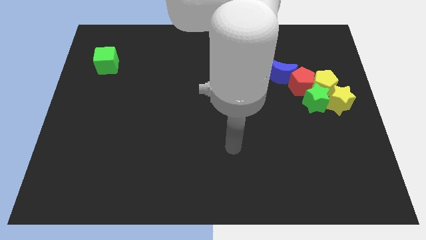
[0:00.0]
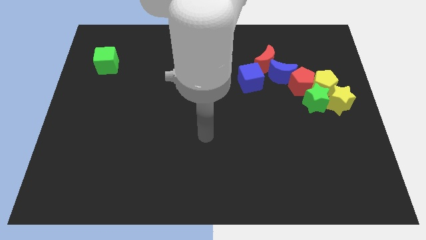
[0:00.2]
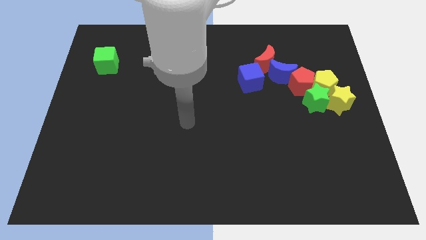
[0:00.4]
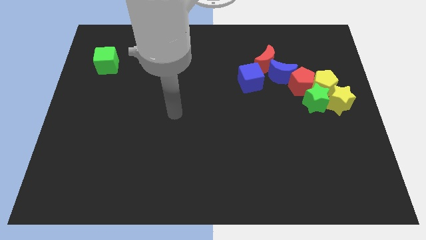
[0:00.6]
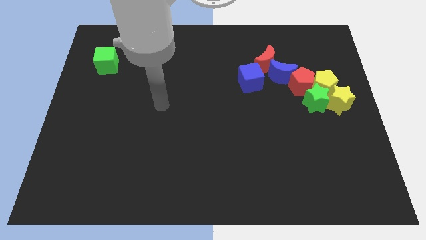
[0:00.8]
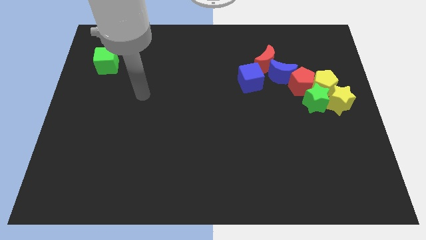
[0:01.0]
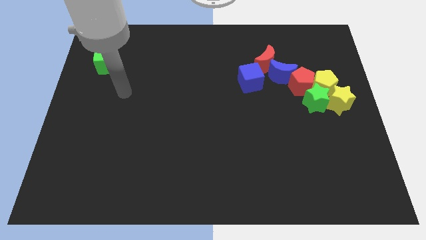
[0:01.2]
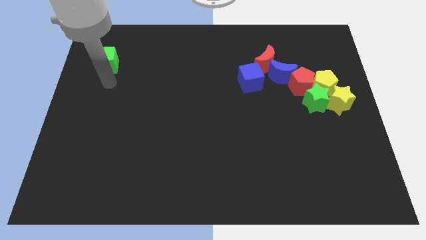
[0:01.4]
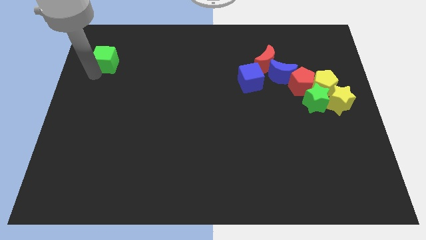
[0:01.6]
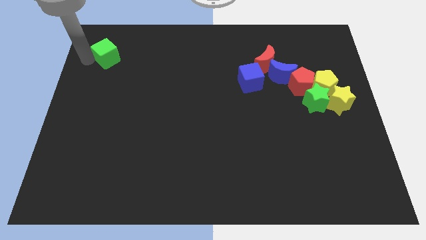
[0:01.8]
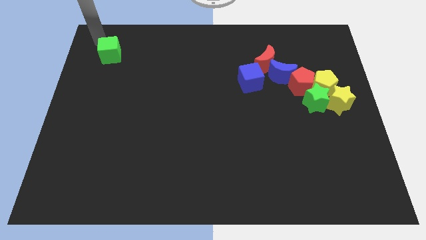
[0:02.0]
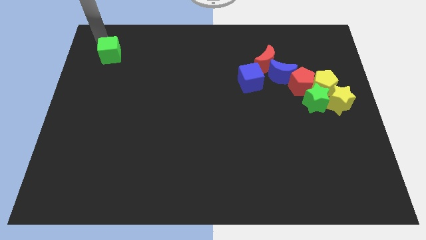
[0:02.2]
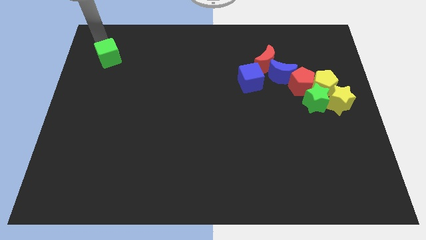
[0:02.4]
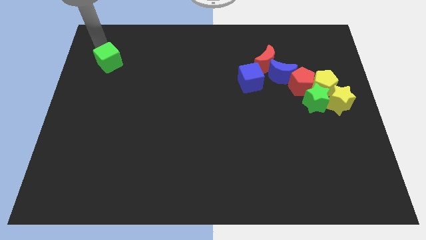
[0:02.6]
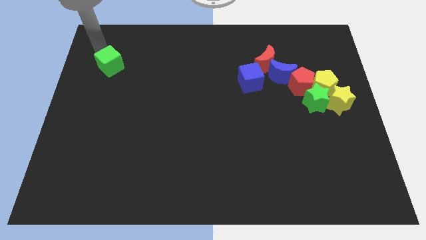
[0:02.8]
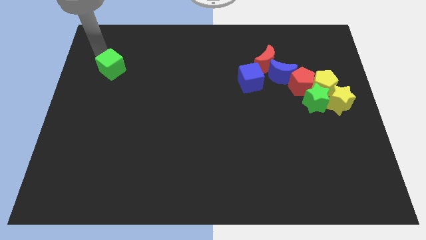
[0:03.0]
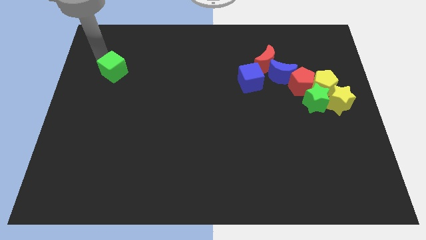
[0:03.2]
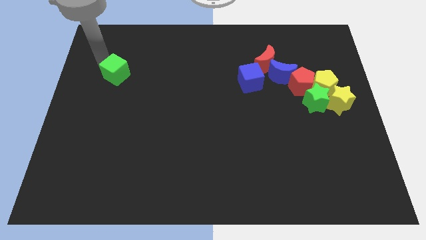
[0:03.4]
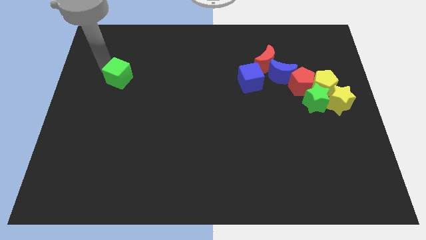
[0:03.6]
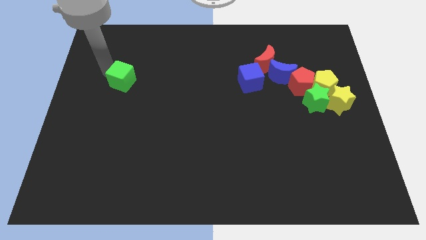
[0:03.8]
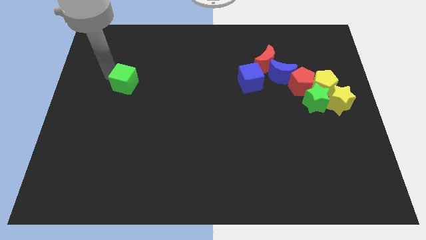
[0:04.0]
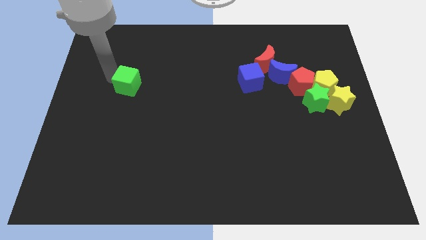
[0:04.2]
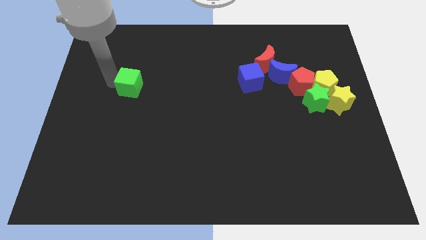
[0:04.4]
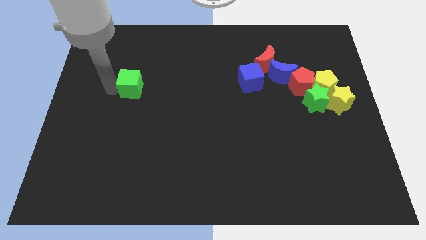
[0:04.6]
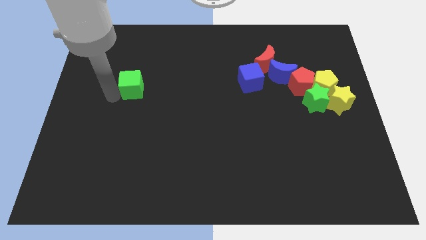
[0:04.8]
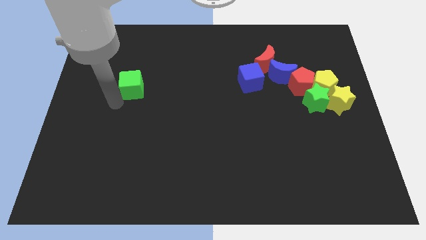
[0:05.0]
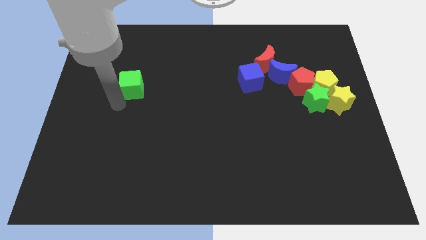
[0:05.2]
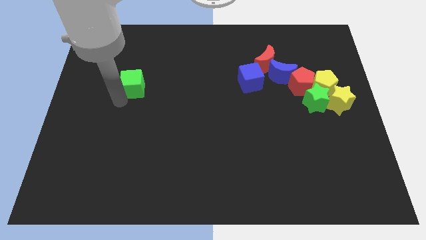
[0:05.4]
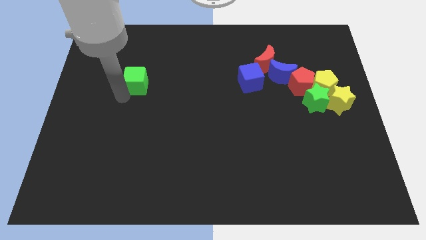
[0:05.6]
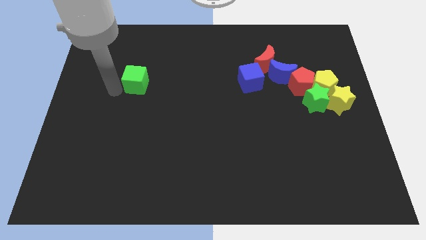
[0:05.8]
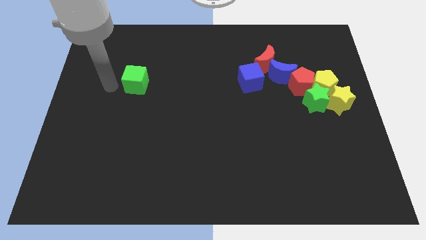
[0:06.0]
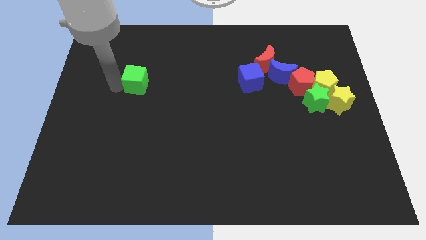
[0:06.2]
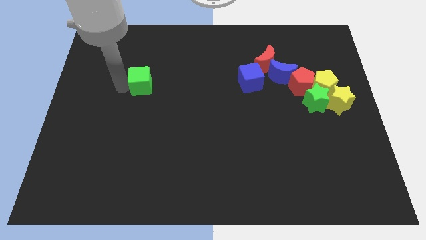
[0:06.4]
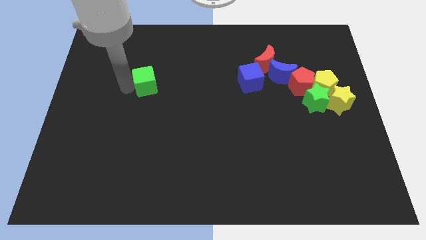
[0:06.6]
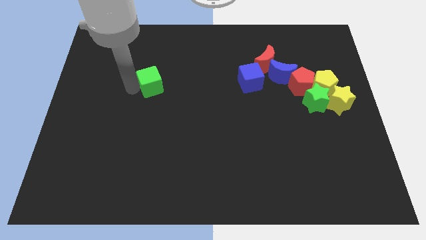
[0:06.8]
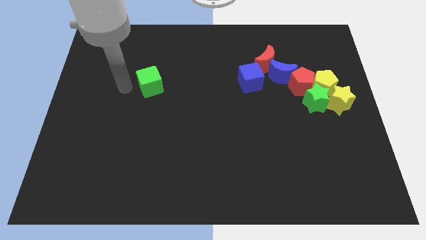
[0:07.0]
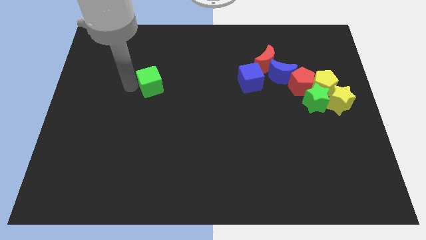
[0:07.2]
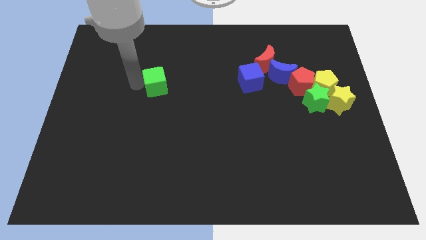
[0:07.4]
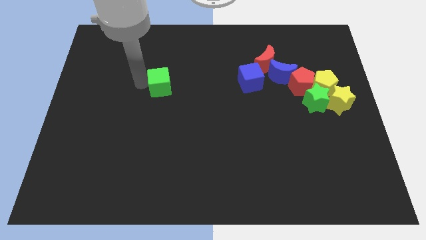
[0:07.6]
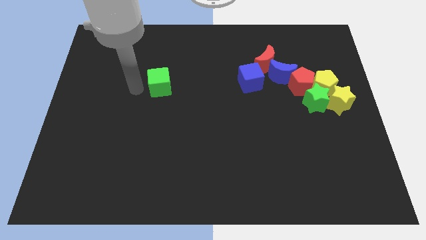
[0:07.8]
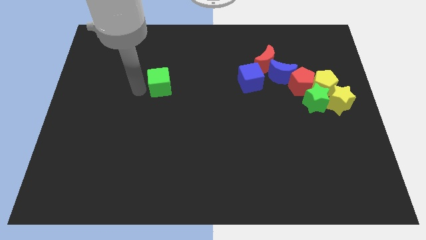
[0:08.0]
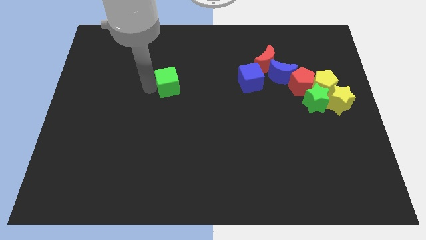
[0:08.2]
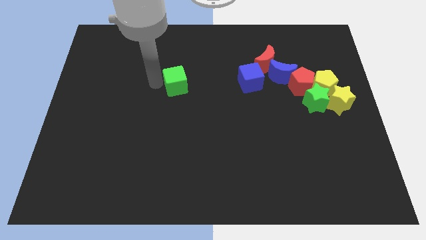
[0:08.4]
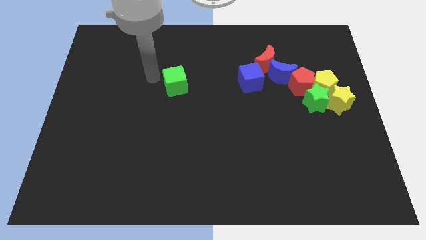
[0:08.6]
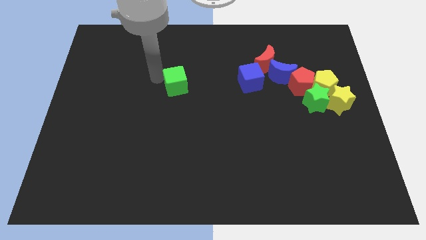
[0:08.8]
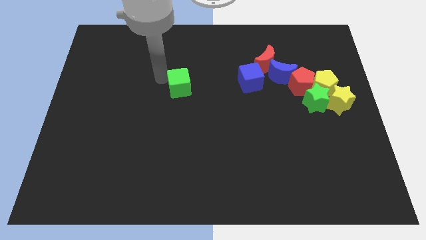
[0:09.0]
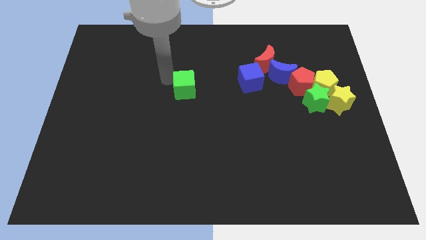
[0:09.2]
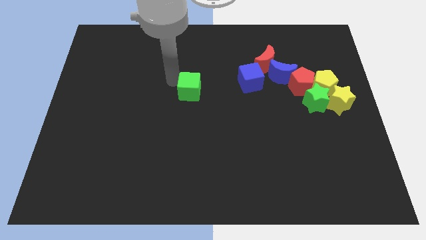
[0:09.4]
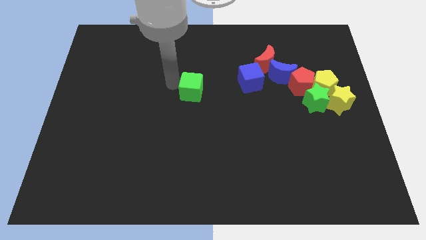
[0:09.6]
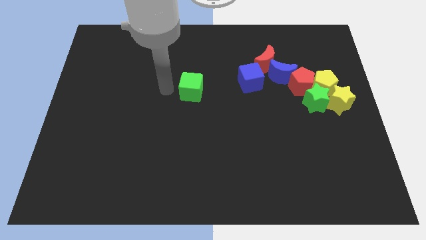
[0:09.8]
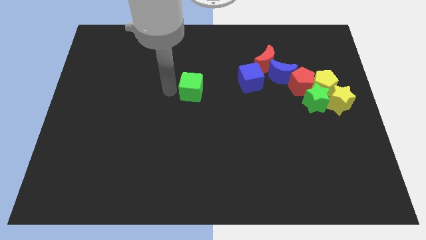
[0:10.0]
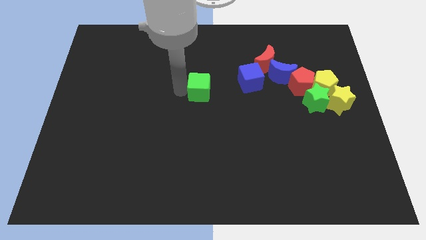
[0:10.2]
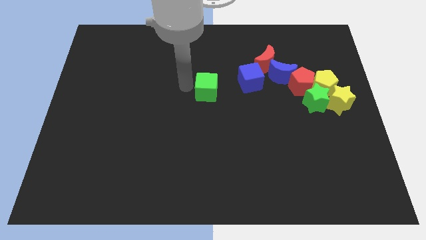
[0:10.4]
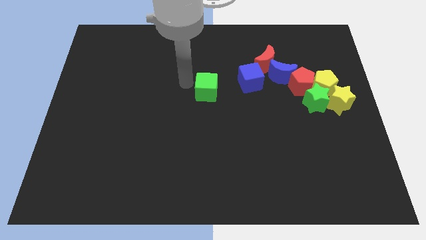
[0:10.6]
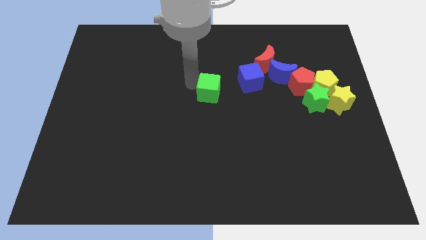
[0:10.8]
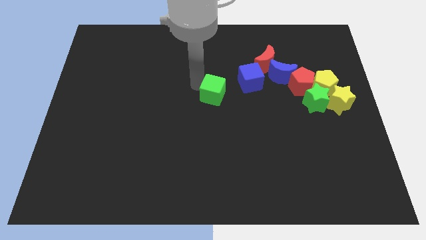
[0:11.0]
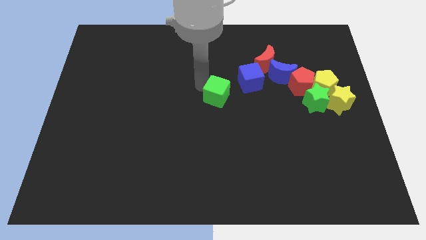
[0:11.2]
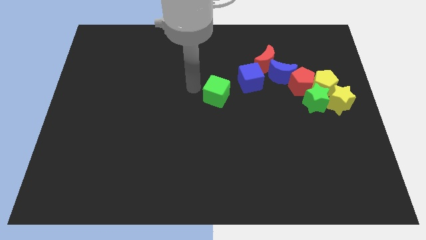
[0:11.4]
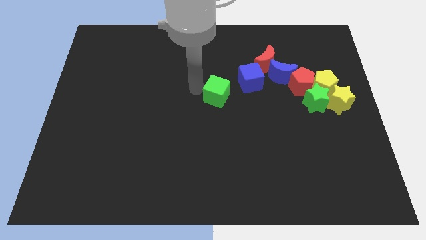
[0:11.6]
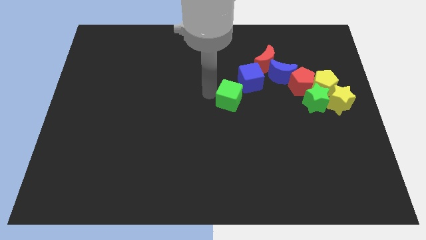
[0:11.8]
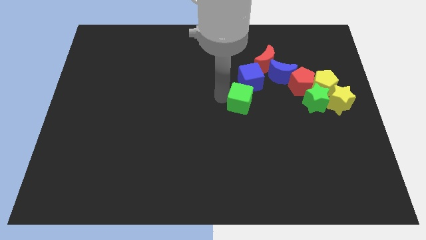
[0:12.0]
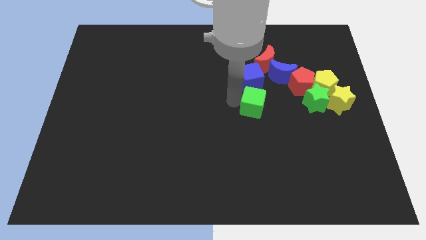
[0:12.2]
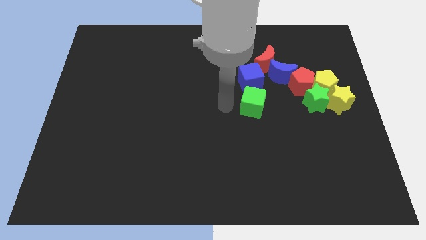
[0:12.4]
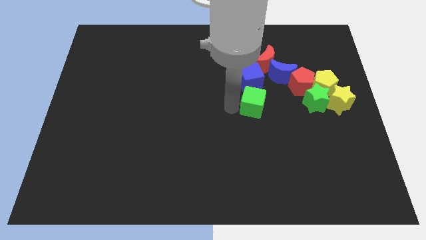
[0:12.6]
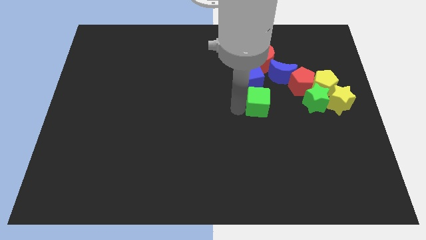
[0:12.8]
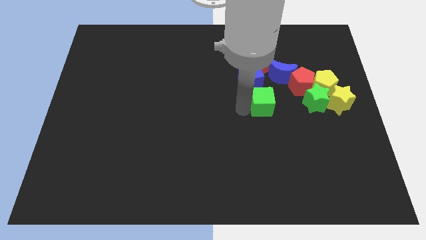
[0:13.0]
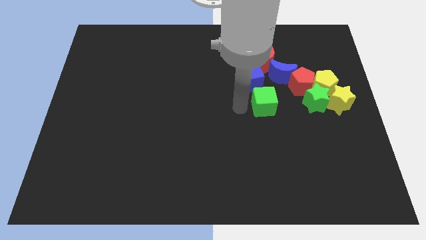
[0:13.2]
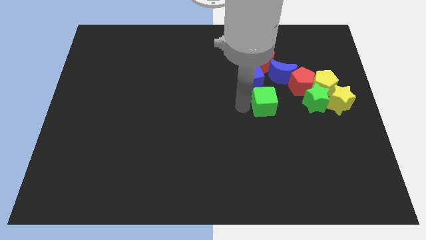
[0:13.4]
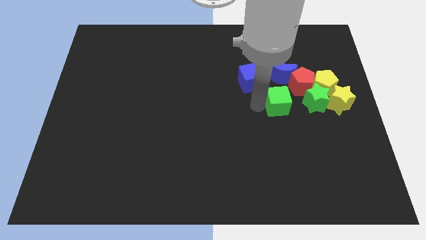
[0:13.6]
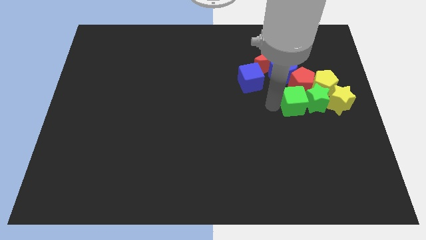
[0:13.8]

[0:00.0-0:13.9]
slide the green cube to the green star
